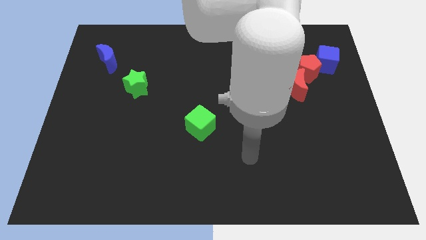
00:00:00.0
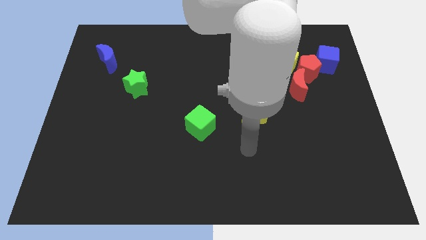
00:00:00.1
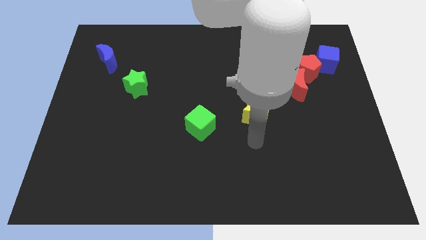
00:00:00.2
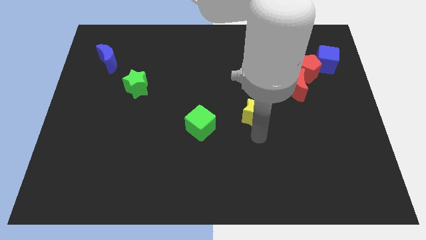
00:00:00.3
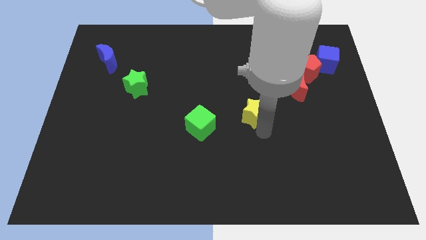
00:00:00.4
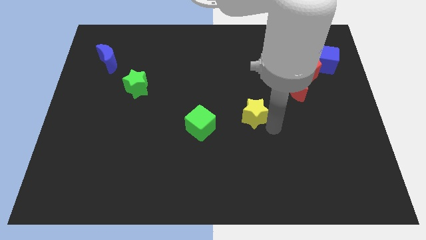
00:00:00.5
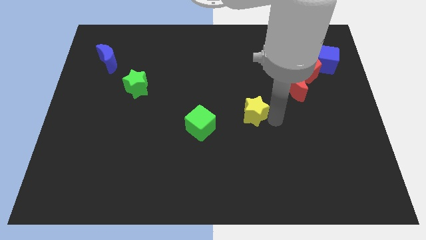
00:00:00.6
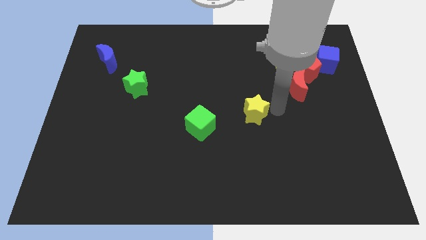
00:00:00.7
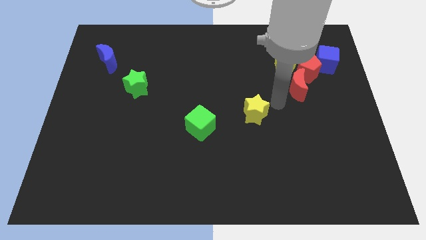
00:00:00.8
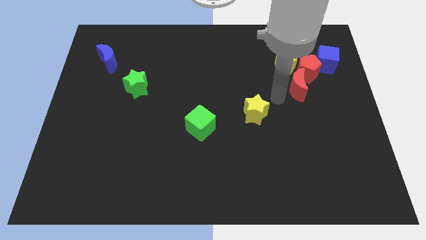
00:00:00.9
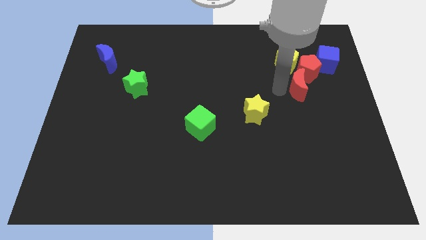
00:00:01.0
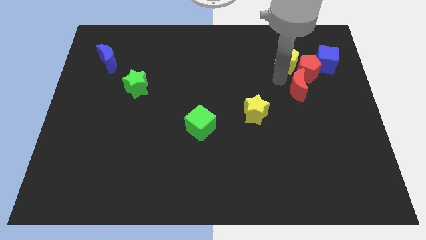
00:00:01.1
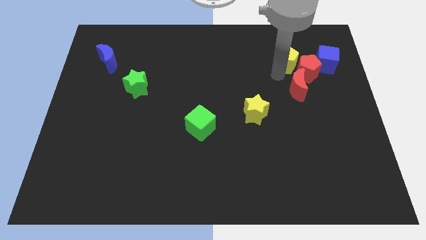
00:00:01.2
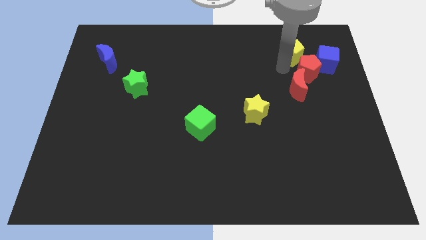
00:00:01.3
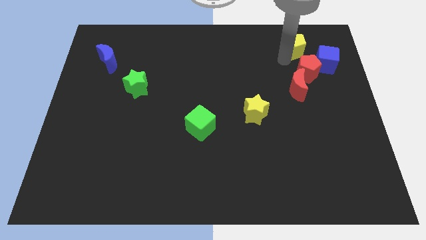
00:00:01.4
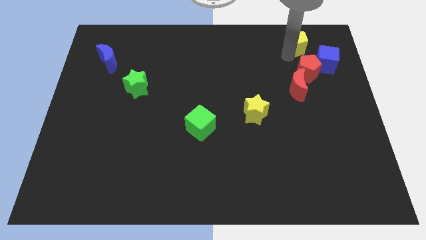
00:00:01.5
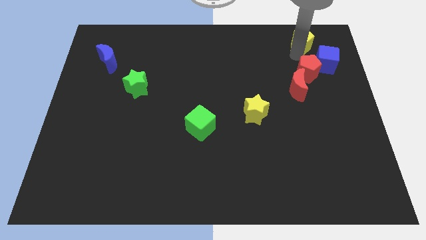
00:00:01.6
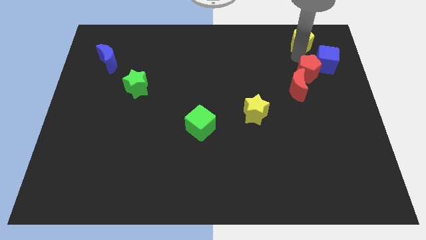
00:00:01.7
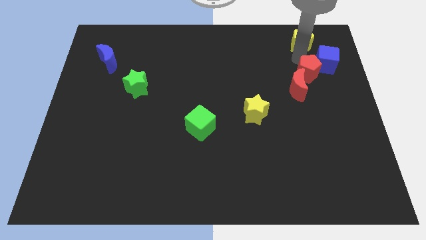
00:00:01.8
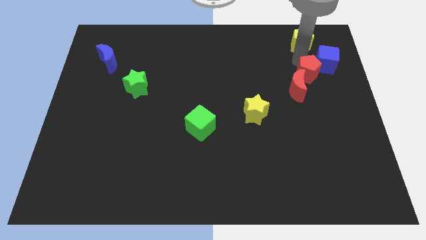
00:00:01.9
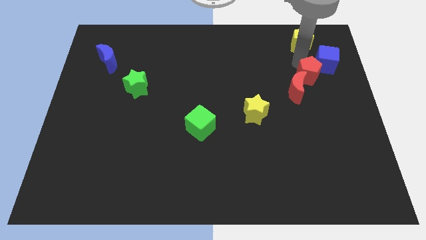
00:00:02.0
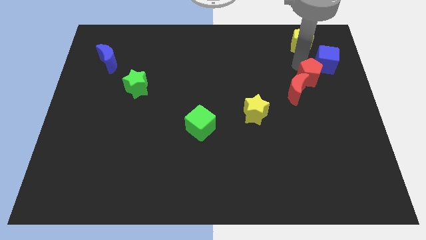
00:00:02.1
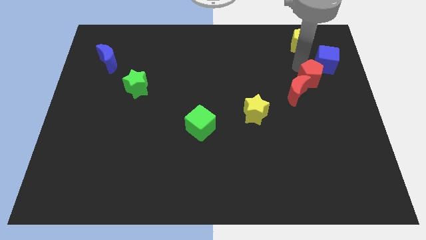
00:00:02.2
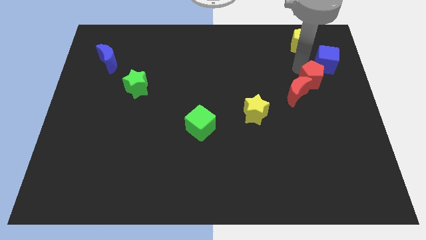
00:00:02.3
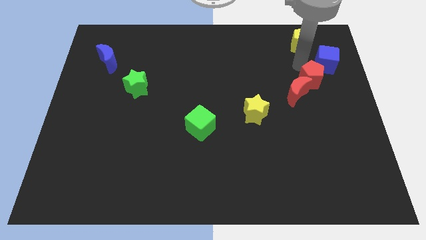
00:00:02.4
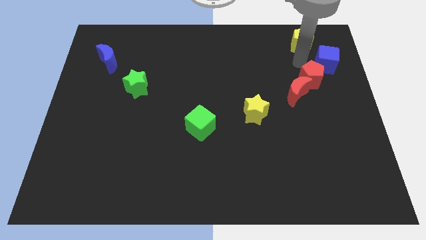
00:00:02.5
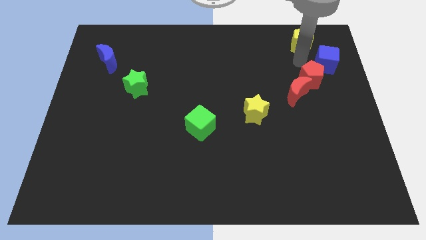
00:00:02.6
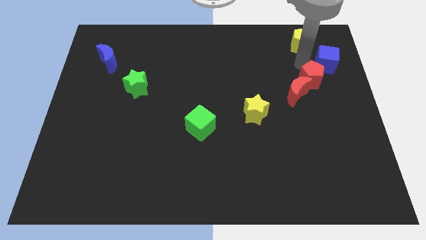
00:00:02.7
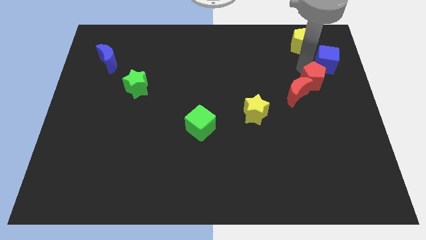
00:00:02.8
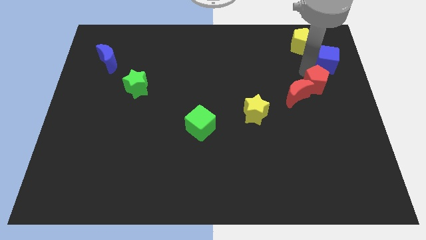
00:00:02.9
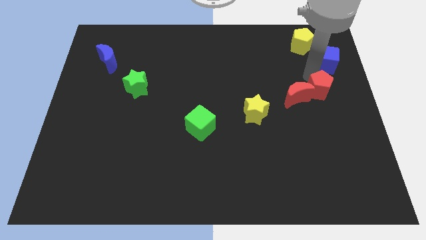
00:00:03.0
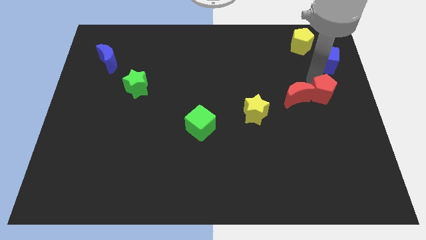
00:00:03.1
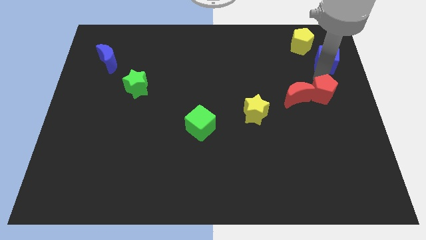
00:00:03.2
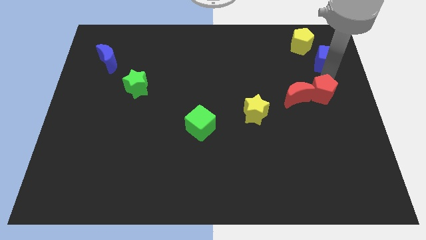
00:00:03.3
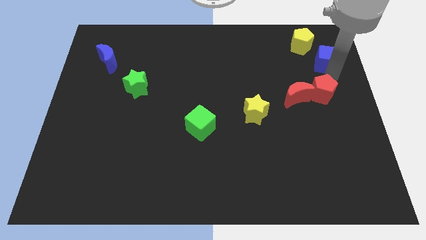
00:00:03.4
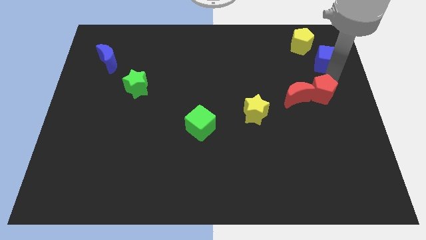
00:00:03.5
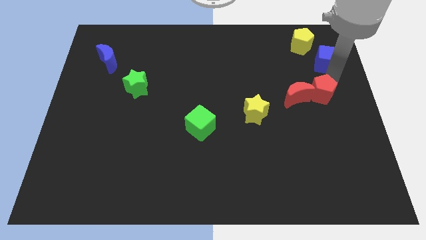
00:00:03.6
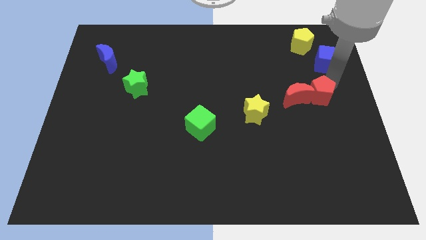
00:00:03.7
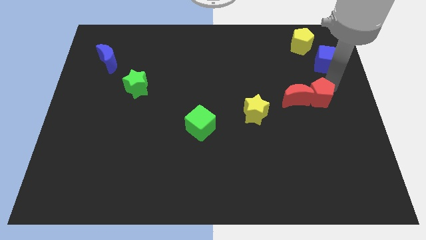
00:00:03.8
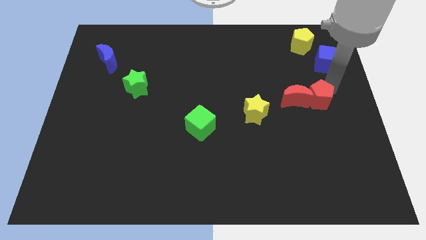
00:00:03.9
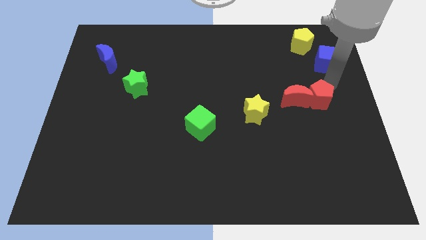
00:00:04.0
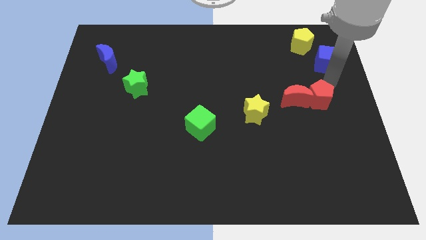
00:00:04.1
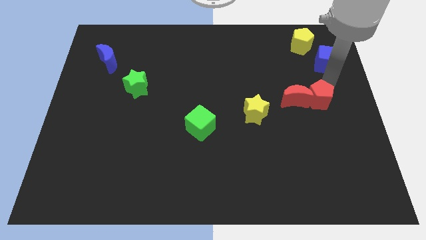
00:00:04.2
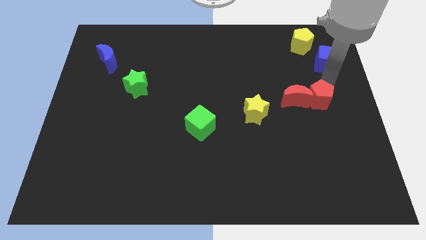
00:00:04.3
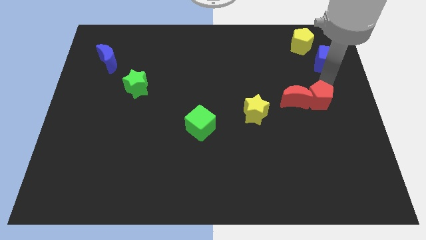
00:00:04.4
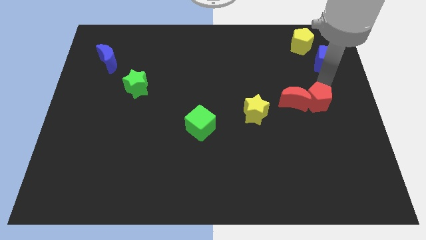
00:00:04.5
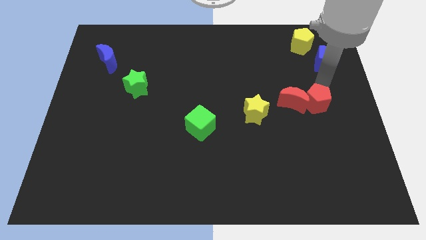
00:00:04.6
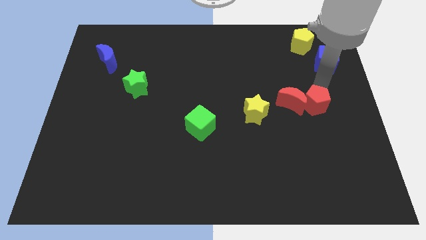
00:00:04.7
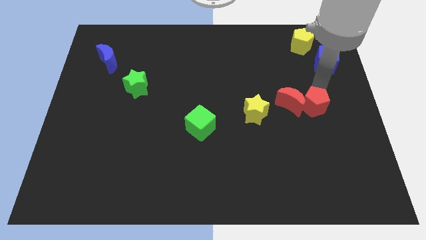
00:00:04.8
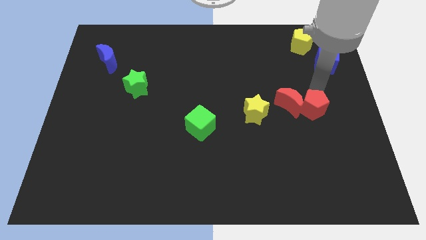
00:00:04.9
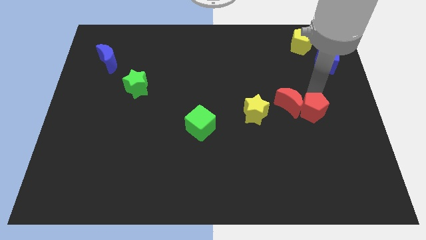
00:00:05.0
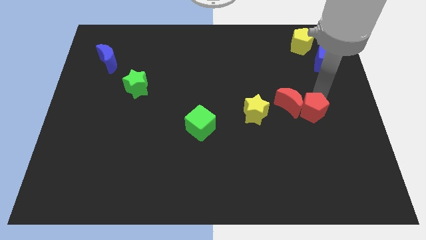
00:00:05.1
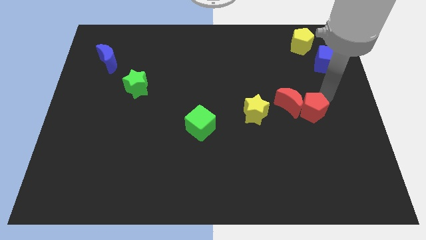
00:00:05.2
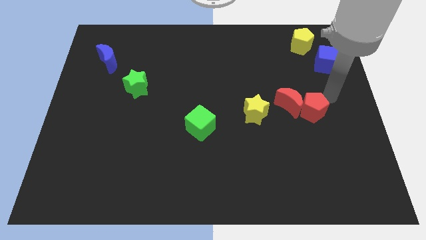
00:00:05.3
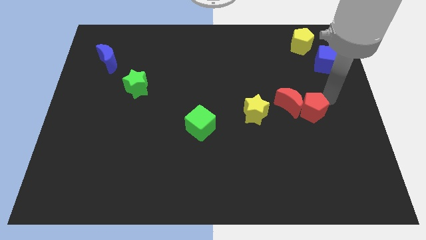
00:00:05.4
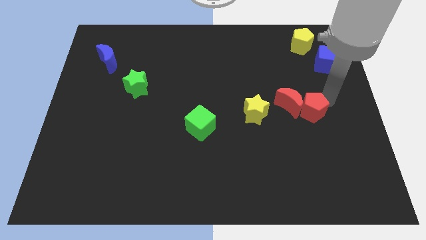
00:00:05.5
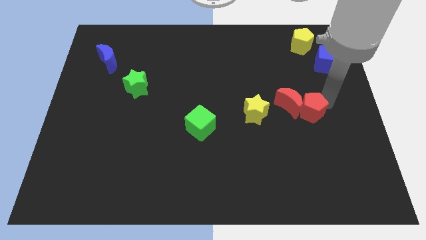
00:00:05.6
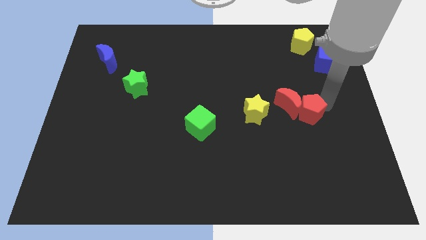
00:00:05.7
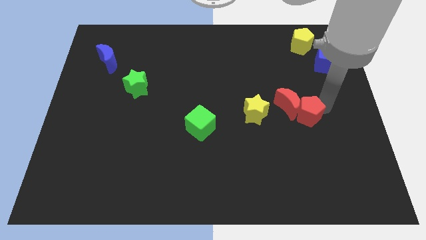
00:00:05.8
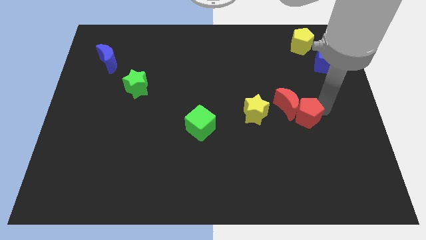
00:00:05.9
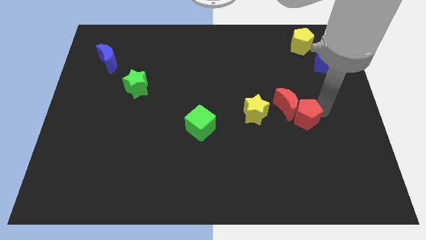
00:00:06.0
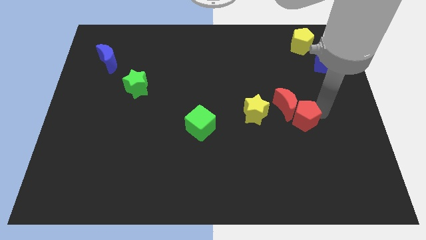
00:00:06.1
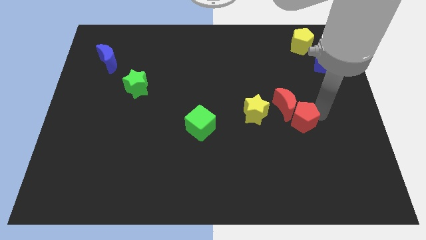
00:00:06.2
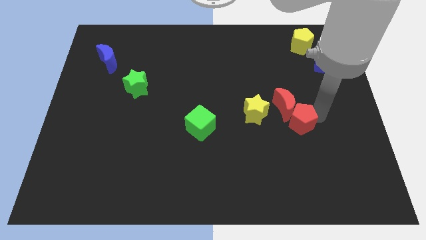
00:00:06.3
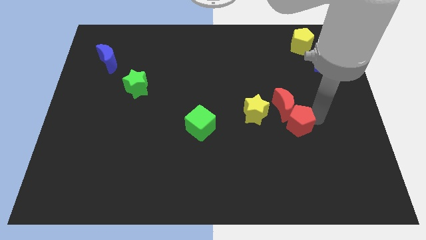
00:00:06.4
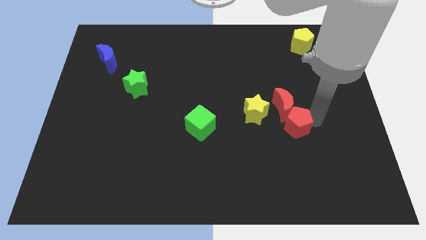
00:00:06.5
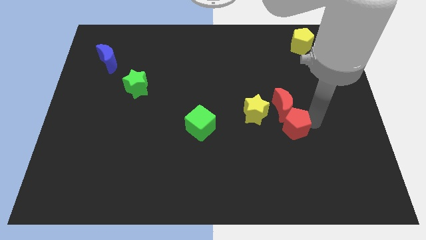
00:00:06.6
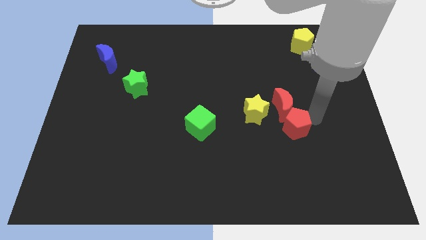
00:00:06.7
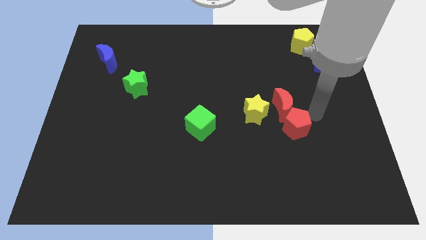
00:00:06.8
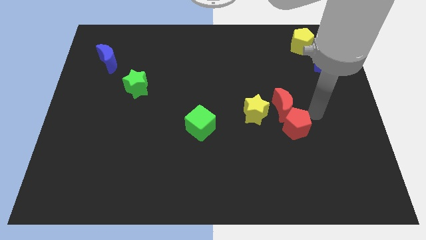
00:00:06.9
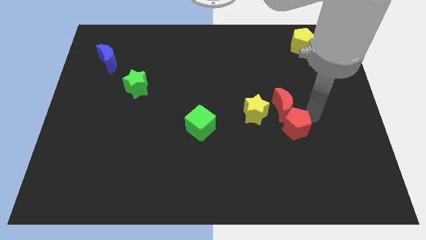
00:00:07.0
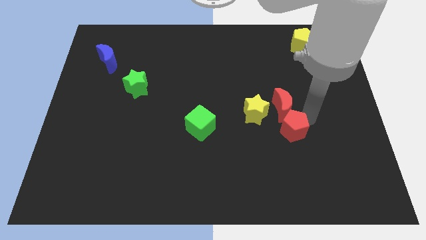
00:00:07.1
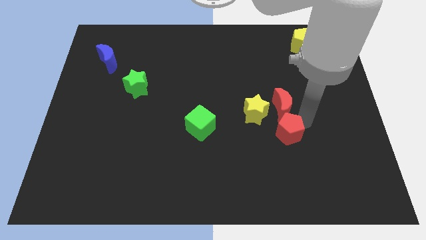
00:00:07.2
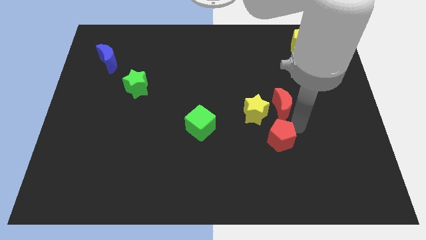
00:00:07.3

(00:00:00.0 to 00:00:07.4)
slide the red pentagon to the bottom of the yellow star

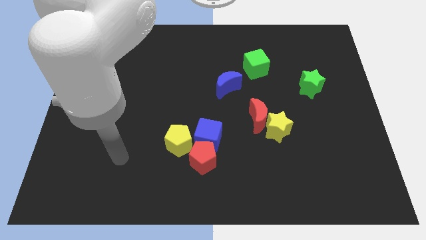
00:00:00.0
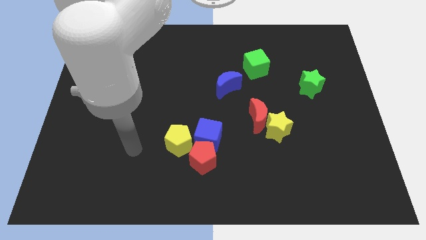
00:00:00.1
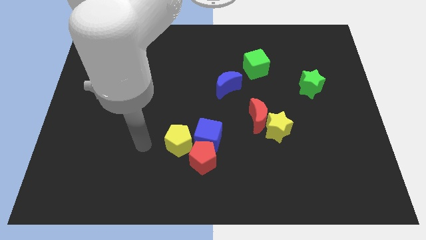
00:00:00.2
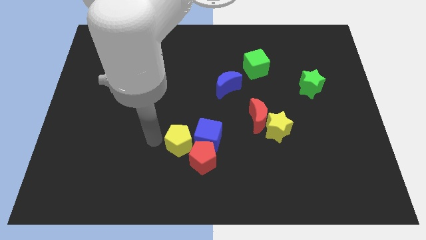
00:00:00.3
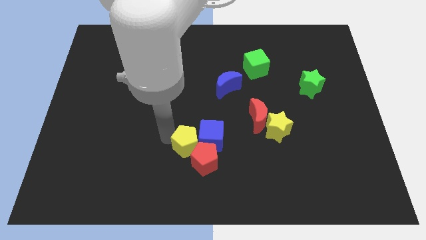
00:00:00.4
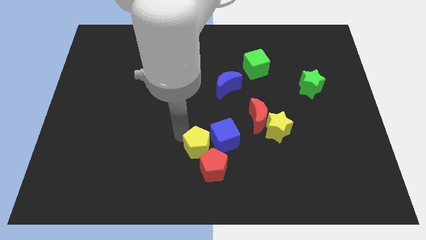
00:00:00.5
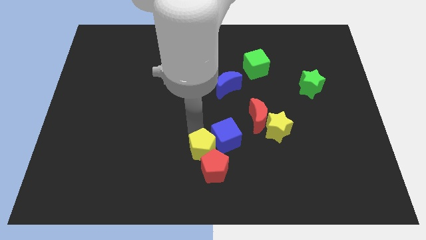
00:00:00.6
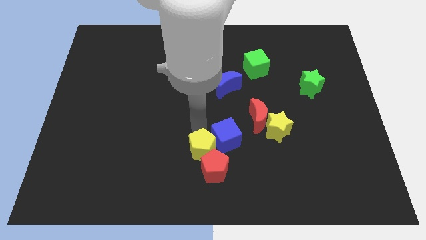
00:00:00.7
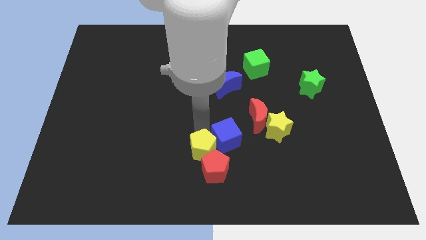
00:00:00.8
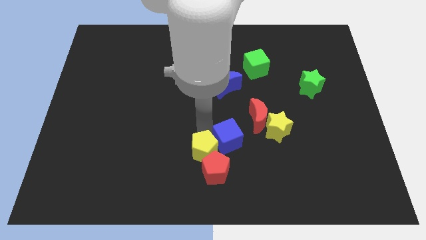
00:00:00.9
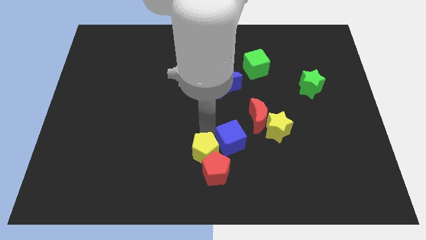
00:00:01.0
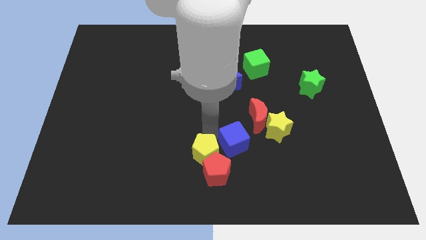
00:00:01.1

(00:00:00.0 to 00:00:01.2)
put the blue cube diagonally down and to the left of the yellow star
